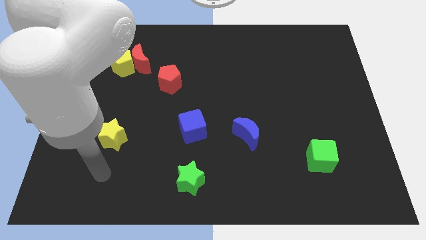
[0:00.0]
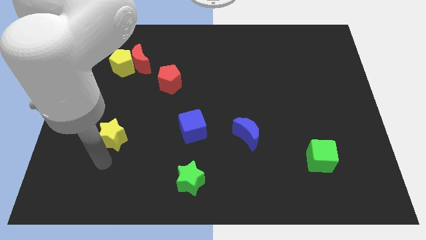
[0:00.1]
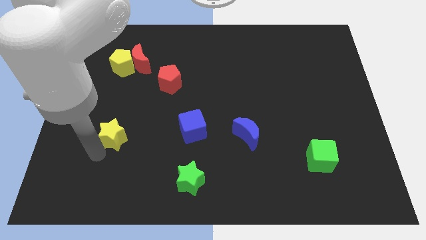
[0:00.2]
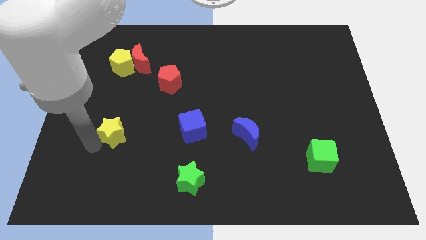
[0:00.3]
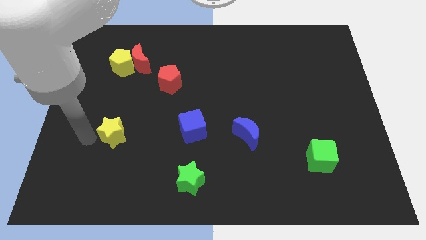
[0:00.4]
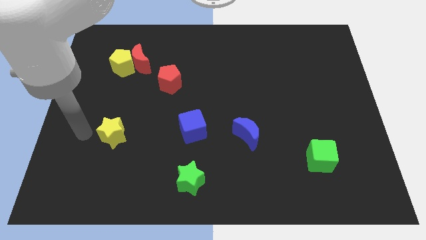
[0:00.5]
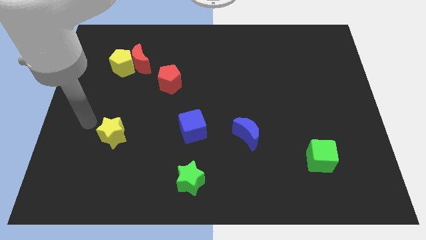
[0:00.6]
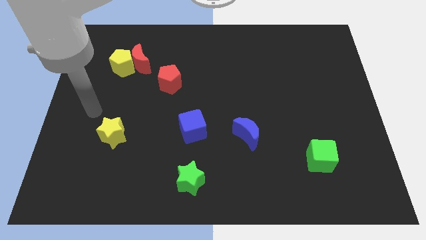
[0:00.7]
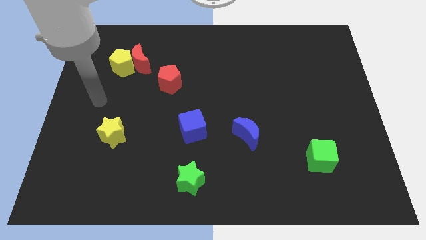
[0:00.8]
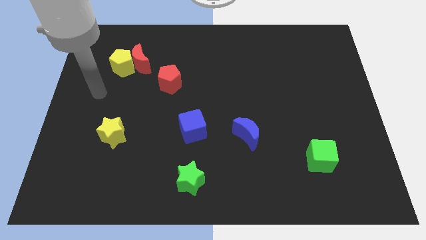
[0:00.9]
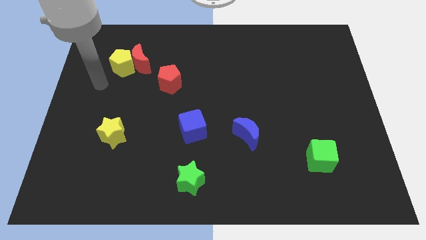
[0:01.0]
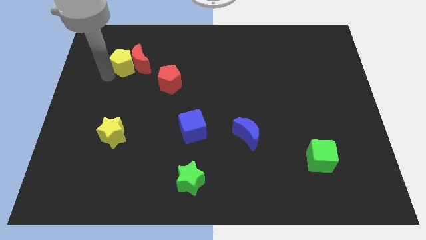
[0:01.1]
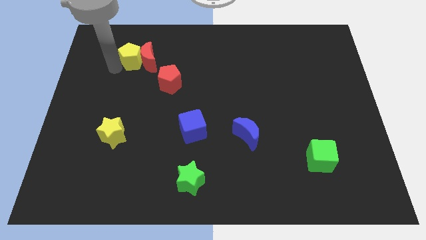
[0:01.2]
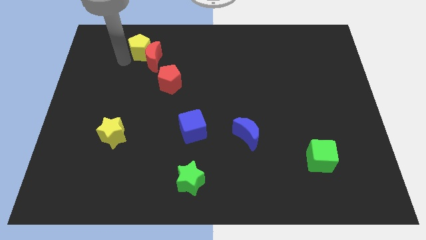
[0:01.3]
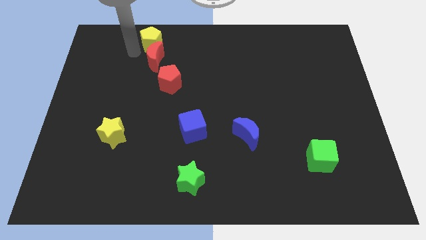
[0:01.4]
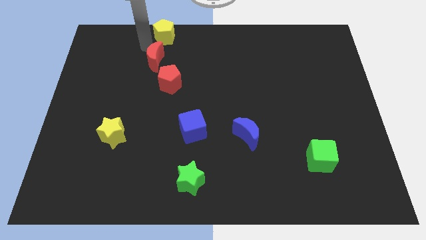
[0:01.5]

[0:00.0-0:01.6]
separate the red moon from the yellow pentagon

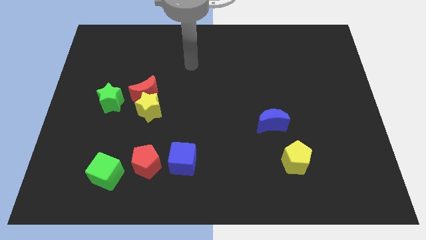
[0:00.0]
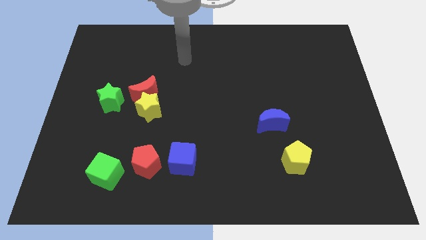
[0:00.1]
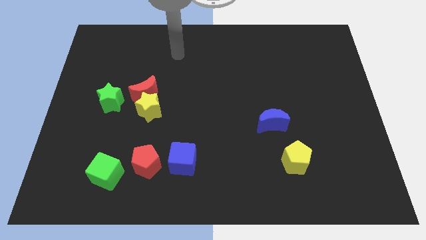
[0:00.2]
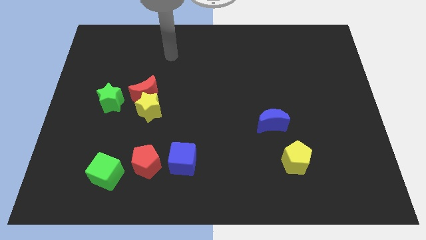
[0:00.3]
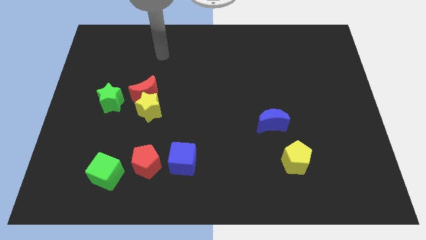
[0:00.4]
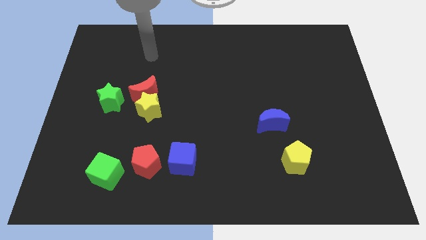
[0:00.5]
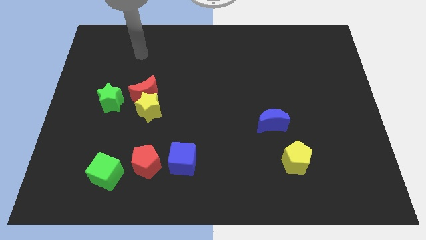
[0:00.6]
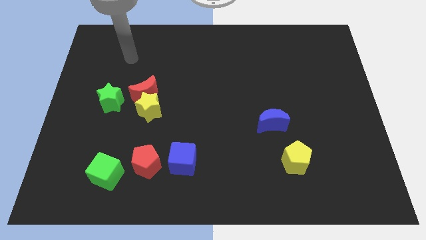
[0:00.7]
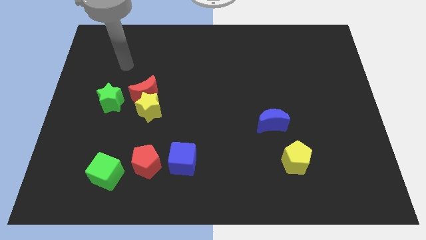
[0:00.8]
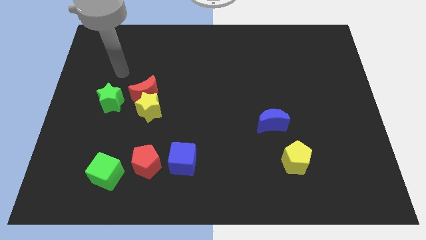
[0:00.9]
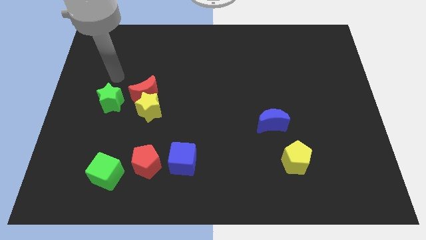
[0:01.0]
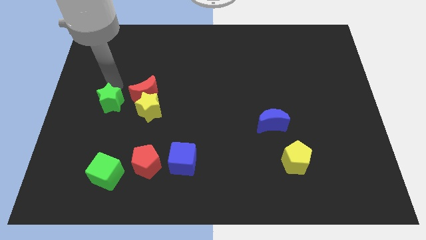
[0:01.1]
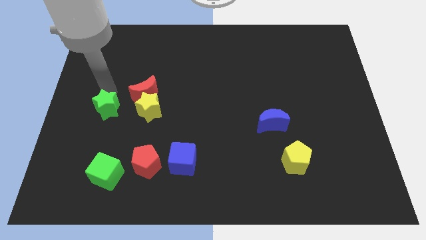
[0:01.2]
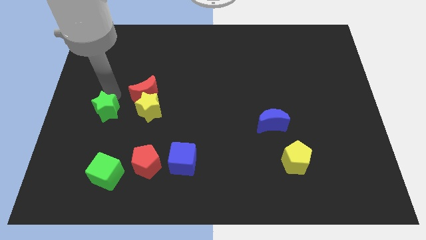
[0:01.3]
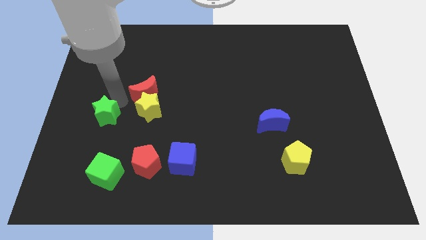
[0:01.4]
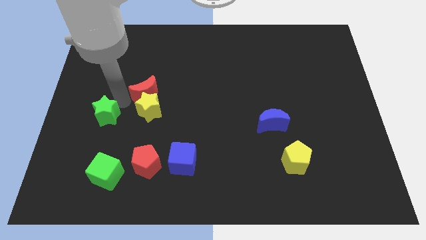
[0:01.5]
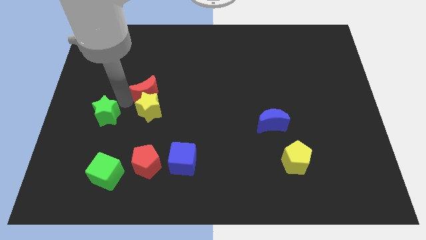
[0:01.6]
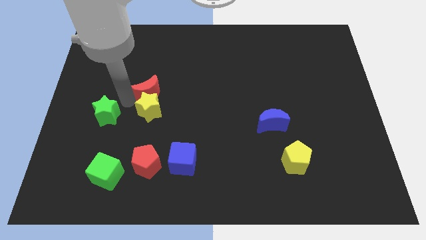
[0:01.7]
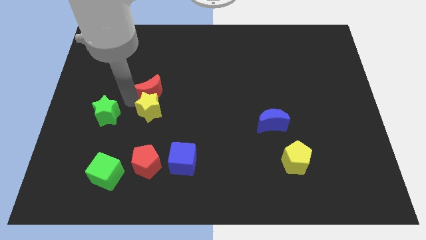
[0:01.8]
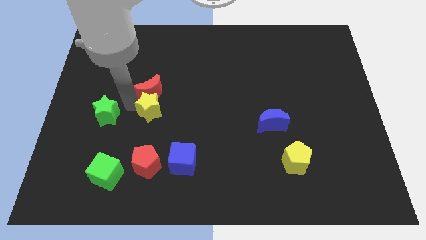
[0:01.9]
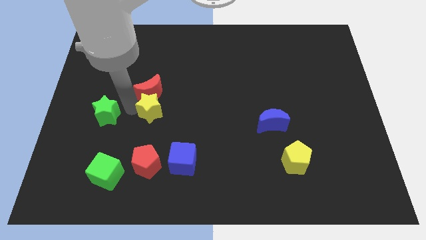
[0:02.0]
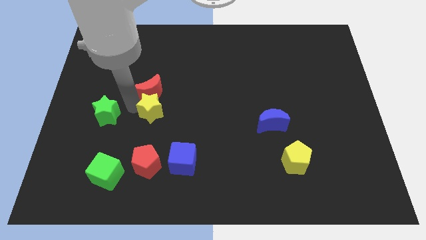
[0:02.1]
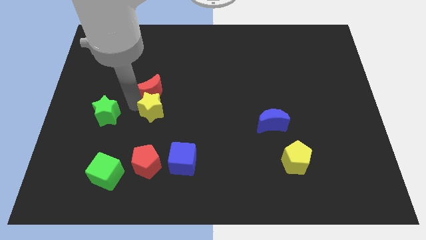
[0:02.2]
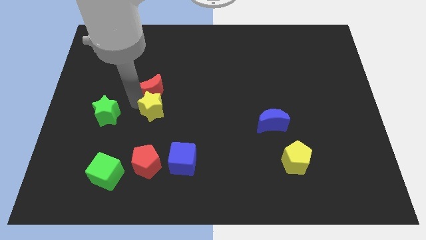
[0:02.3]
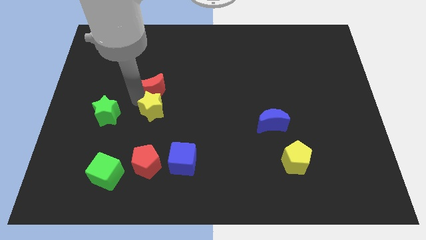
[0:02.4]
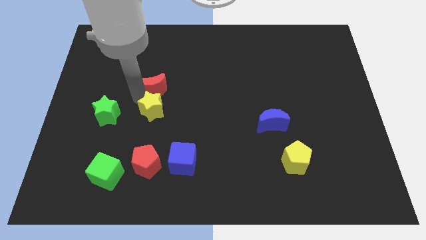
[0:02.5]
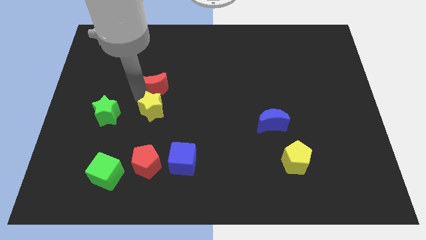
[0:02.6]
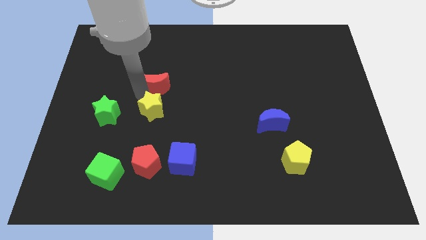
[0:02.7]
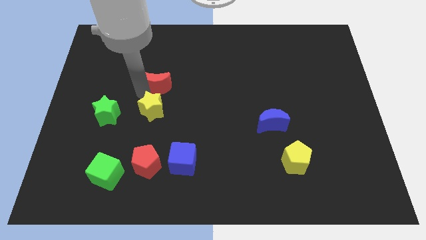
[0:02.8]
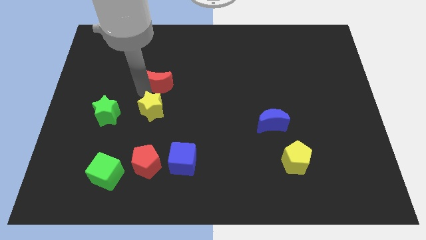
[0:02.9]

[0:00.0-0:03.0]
pull the red moon apart from the yellow star and green star

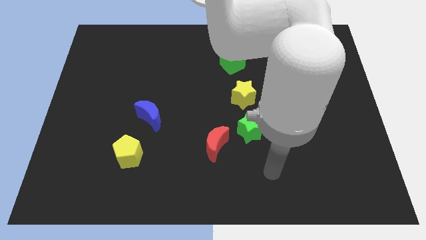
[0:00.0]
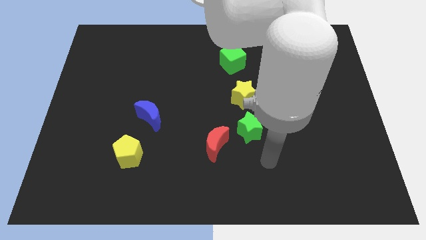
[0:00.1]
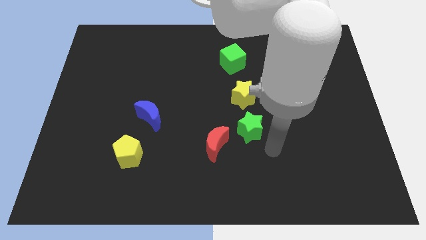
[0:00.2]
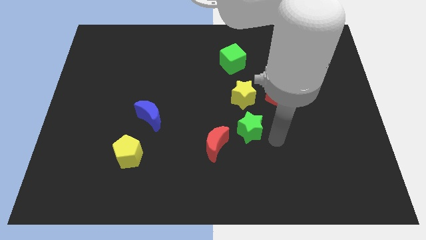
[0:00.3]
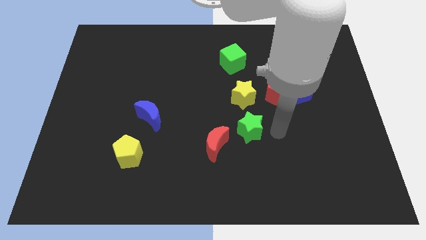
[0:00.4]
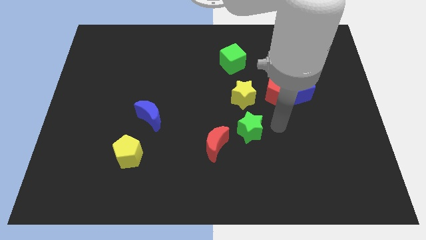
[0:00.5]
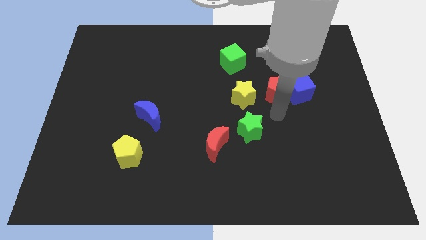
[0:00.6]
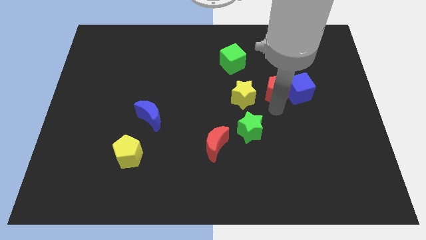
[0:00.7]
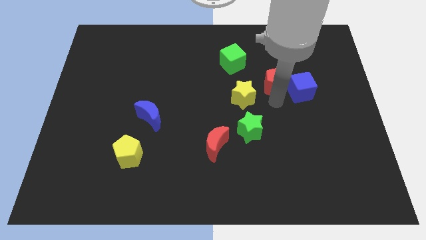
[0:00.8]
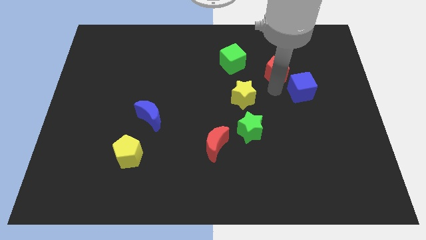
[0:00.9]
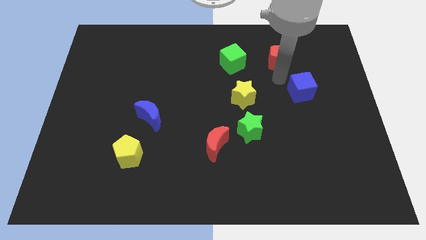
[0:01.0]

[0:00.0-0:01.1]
move the blue cube away from the red pentagon

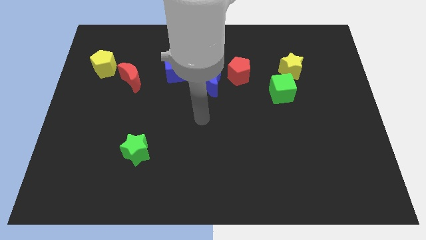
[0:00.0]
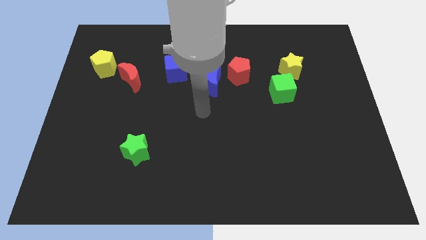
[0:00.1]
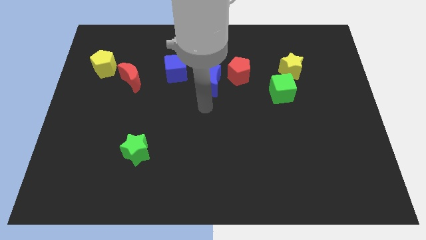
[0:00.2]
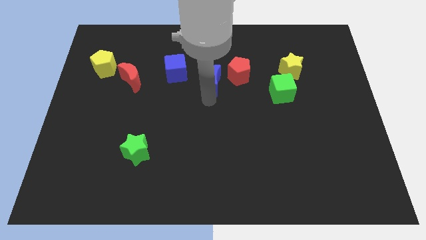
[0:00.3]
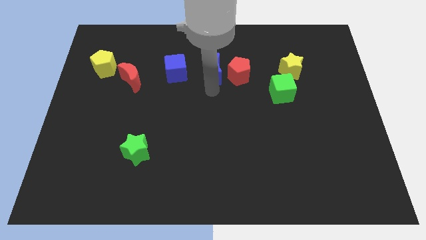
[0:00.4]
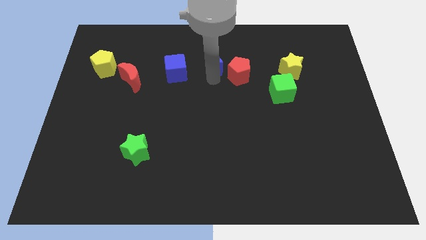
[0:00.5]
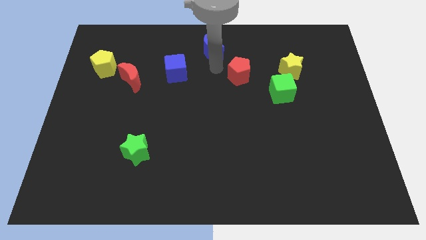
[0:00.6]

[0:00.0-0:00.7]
move the red pentagon away from the blue moon

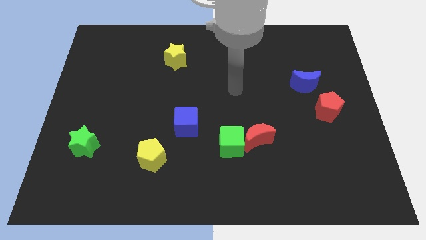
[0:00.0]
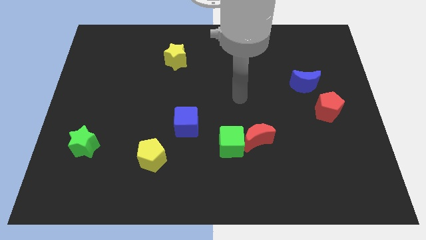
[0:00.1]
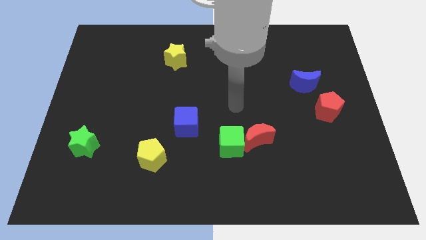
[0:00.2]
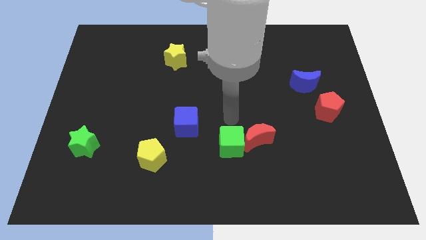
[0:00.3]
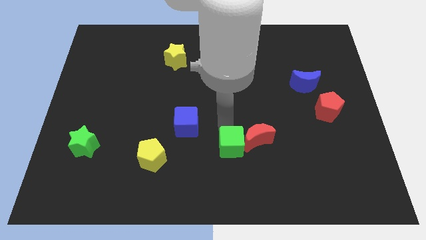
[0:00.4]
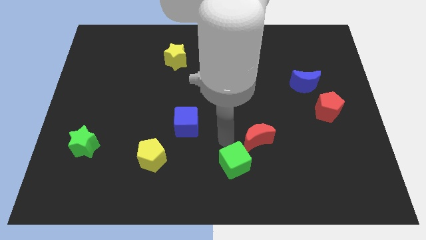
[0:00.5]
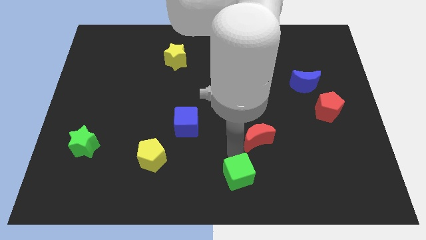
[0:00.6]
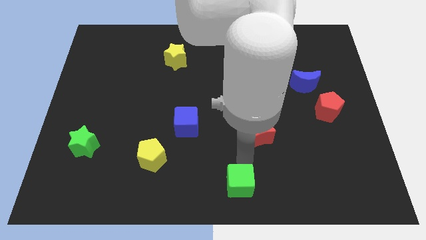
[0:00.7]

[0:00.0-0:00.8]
pull the red moon apart from the green cube

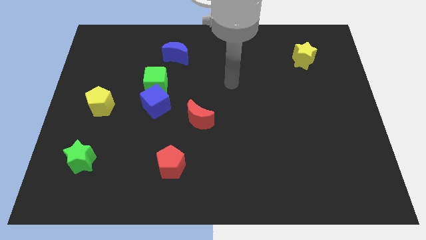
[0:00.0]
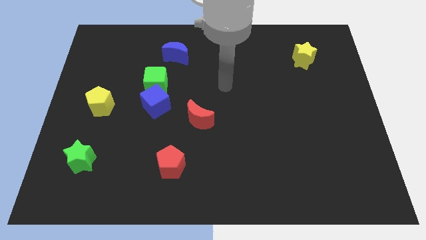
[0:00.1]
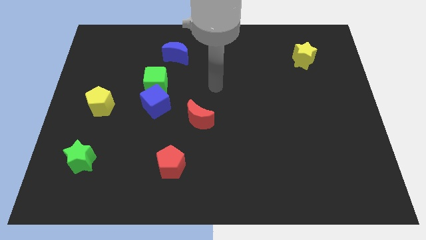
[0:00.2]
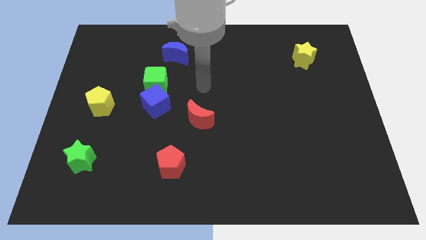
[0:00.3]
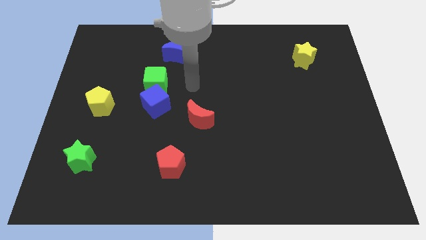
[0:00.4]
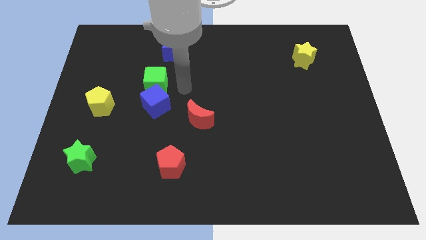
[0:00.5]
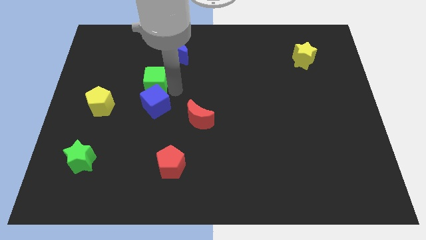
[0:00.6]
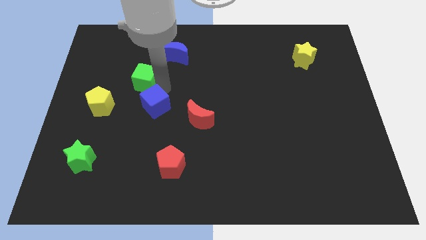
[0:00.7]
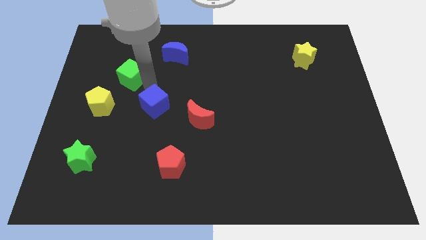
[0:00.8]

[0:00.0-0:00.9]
pull the blue cube apart from the green cube

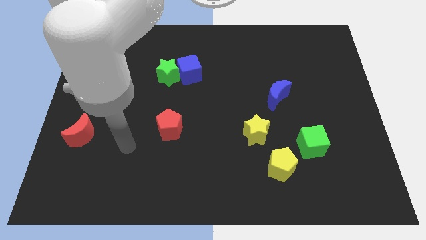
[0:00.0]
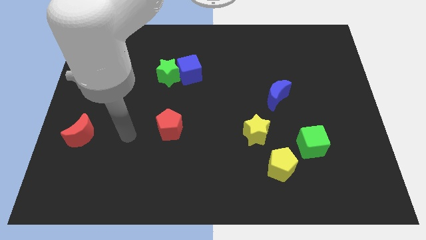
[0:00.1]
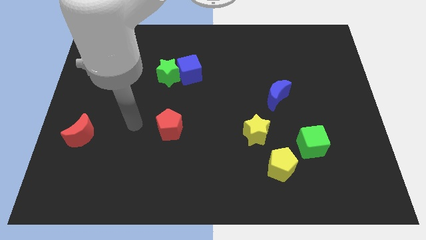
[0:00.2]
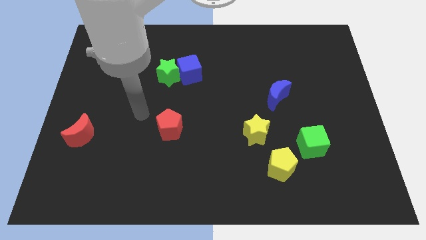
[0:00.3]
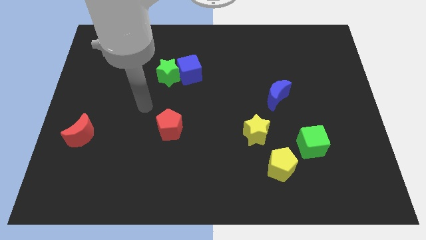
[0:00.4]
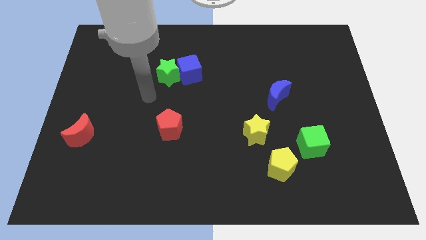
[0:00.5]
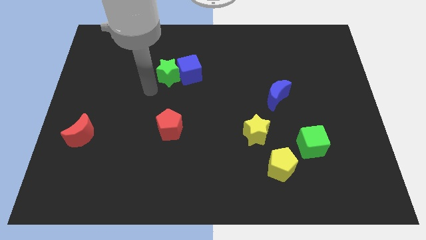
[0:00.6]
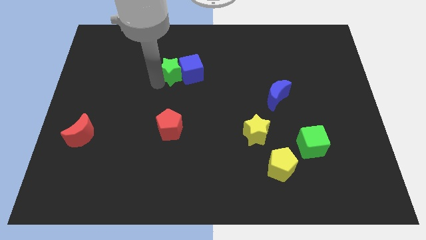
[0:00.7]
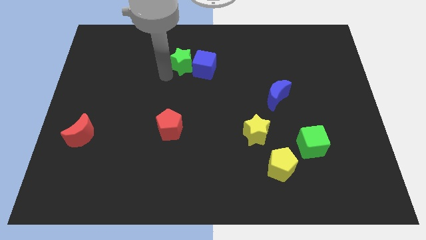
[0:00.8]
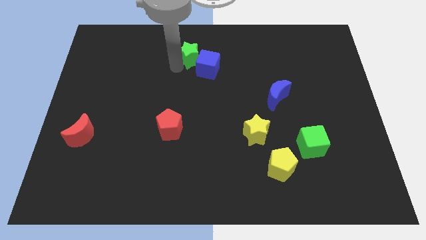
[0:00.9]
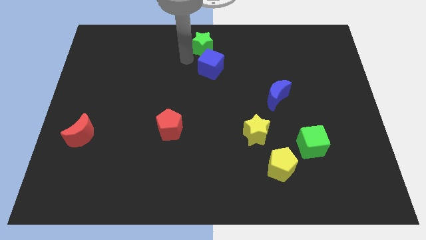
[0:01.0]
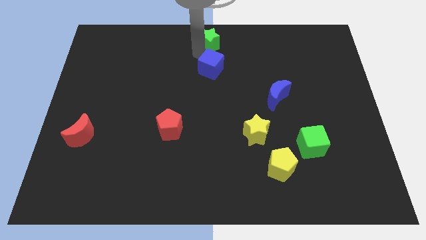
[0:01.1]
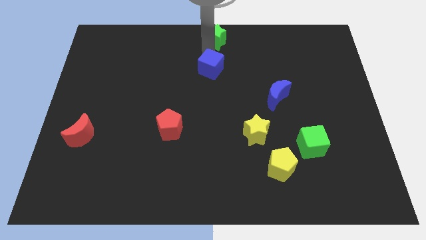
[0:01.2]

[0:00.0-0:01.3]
move the blue cube away from the green star
